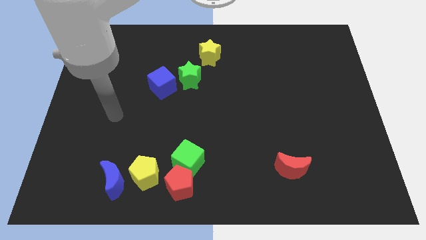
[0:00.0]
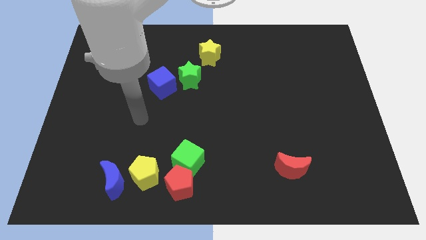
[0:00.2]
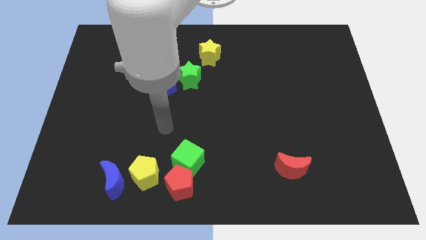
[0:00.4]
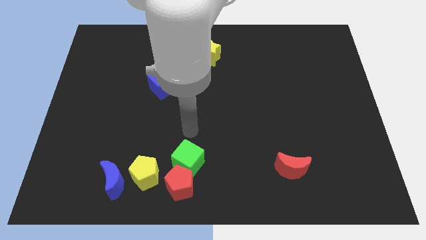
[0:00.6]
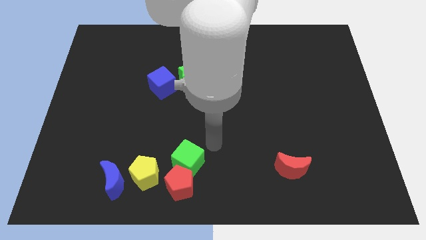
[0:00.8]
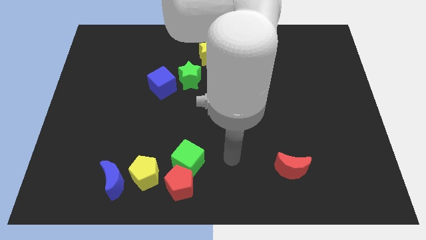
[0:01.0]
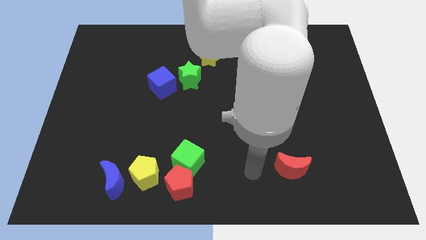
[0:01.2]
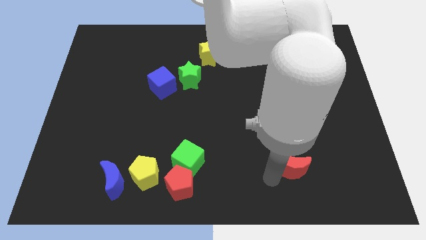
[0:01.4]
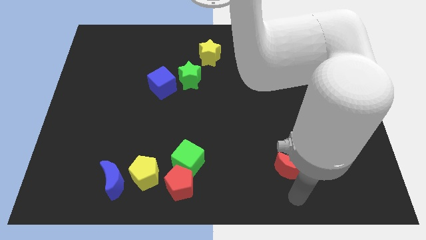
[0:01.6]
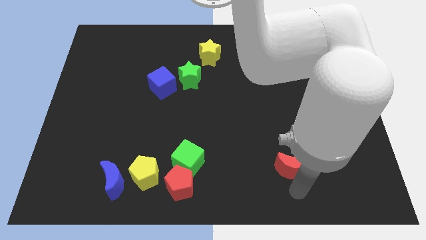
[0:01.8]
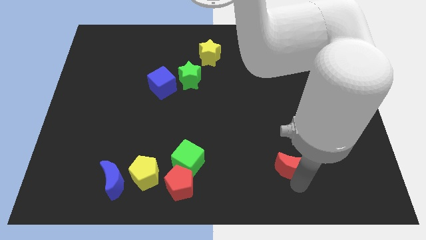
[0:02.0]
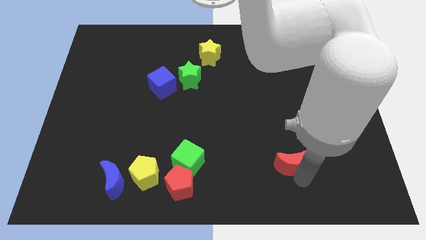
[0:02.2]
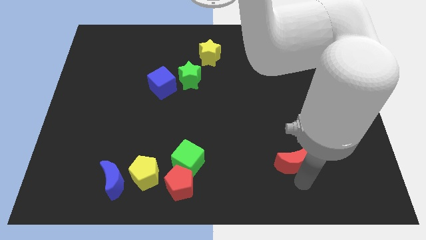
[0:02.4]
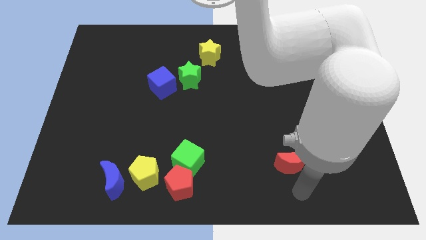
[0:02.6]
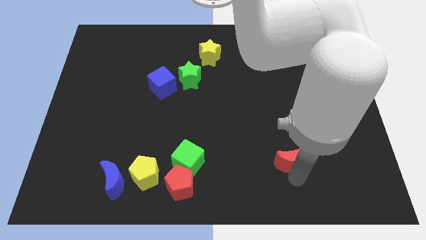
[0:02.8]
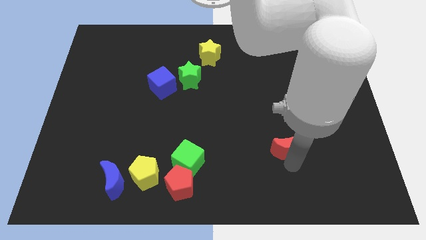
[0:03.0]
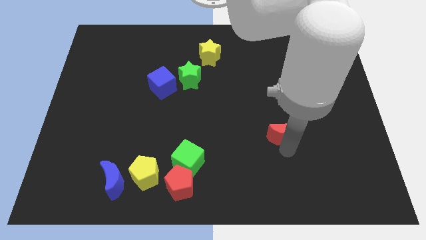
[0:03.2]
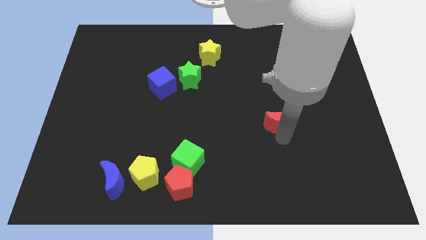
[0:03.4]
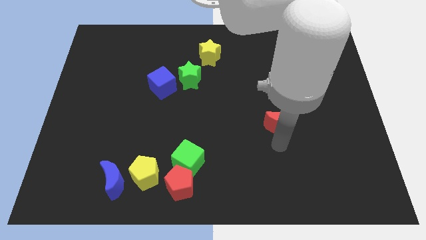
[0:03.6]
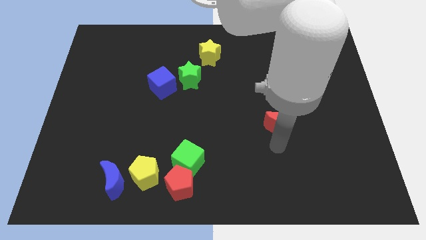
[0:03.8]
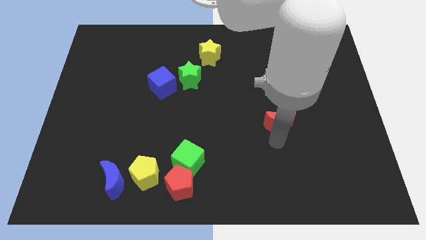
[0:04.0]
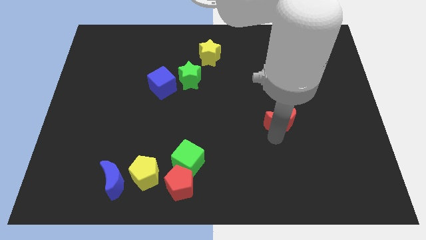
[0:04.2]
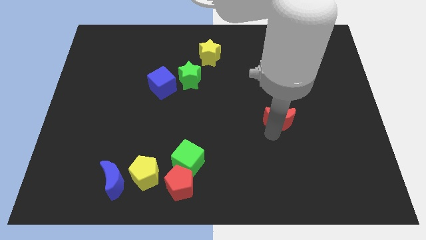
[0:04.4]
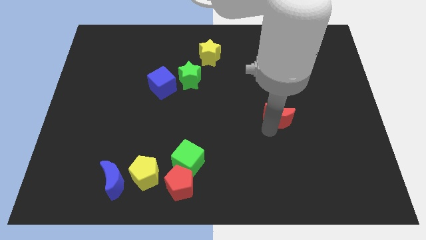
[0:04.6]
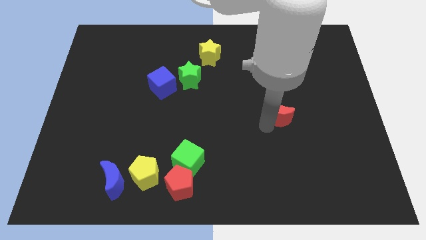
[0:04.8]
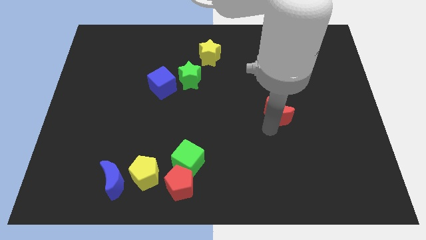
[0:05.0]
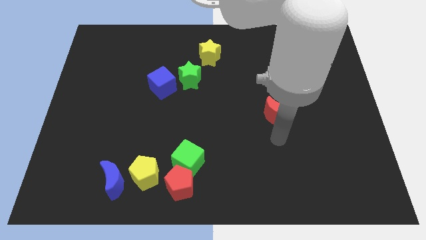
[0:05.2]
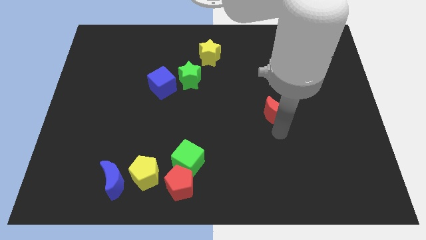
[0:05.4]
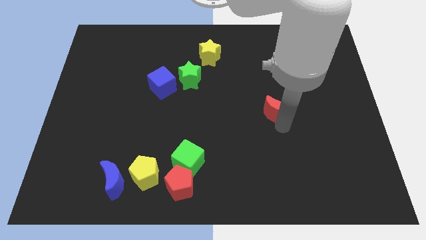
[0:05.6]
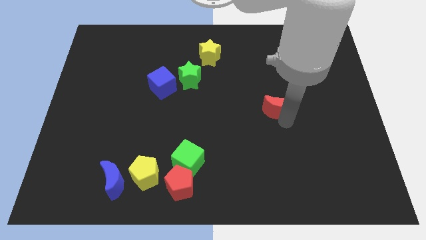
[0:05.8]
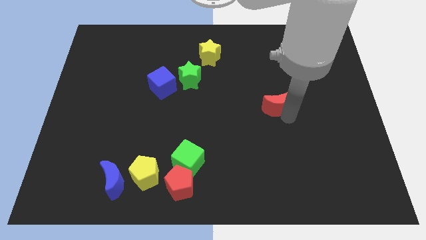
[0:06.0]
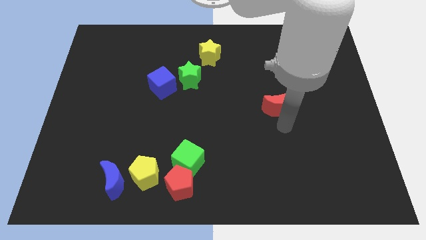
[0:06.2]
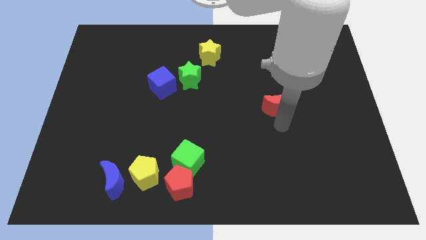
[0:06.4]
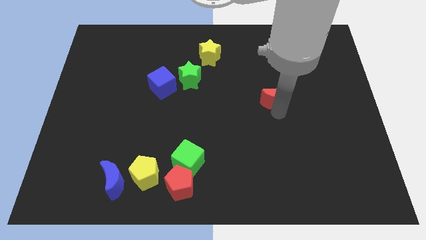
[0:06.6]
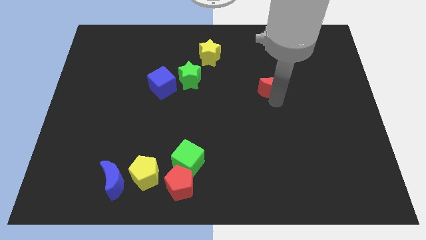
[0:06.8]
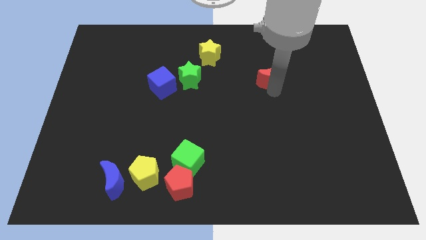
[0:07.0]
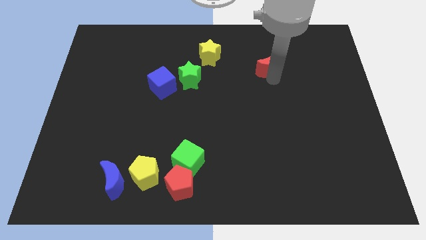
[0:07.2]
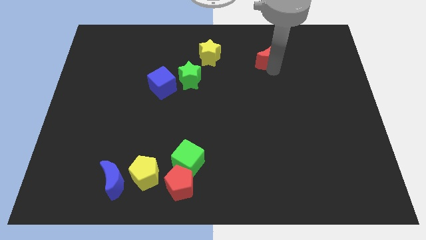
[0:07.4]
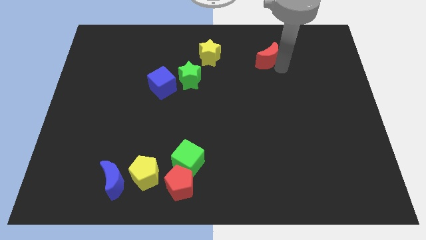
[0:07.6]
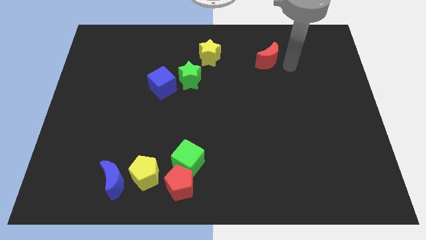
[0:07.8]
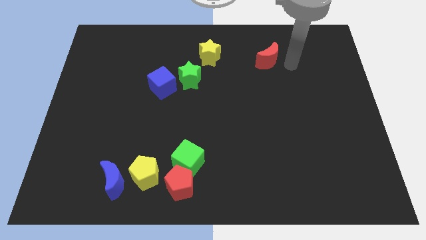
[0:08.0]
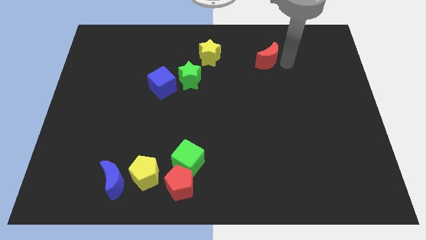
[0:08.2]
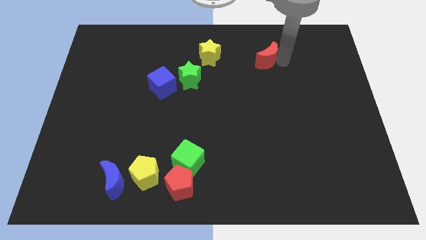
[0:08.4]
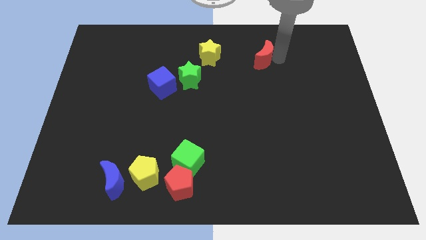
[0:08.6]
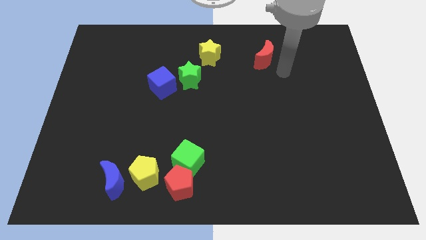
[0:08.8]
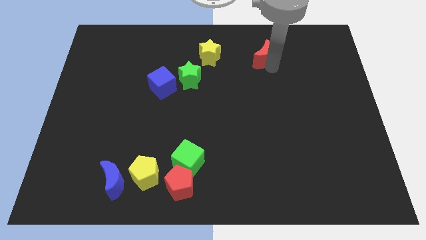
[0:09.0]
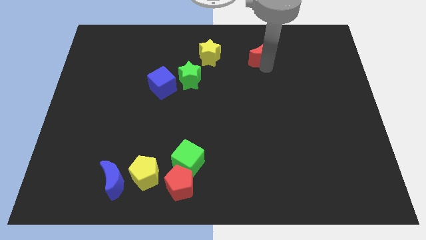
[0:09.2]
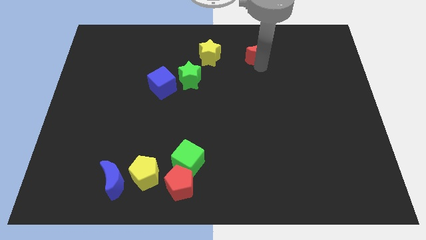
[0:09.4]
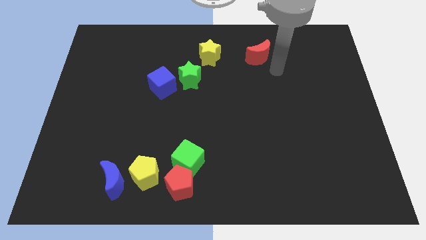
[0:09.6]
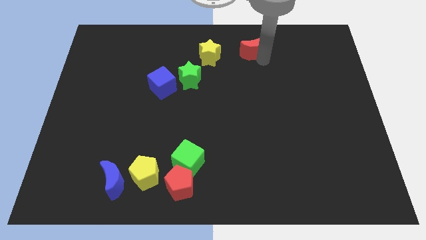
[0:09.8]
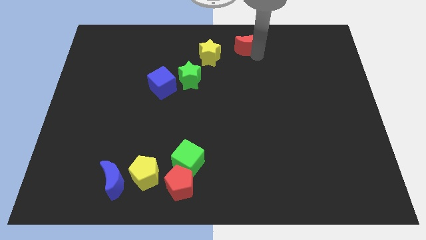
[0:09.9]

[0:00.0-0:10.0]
move the red moon to the towards your base

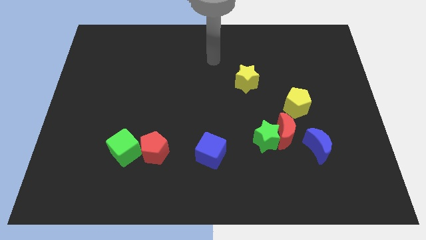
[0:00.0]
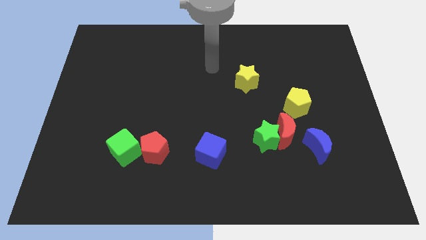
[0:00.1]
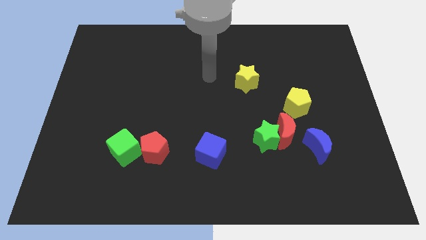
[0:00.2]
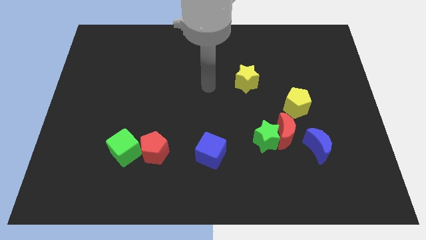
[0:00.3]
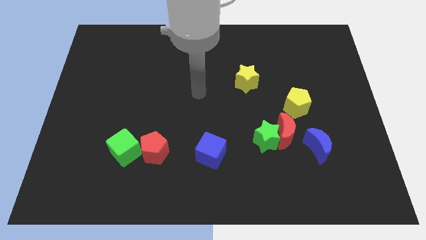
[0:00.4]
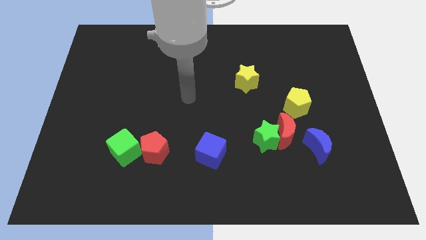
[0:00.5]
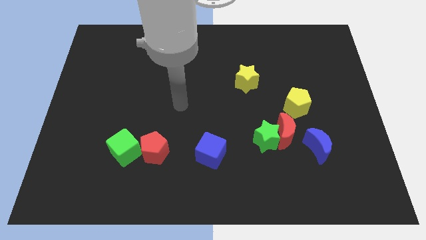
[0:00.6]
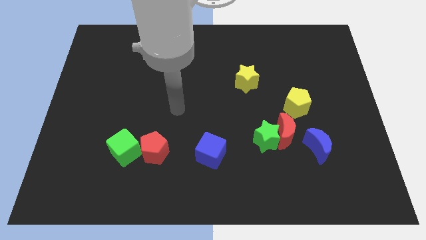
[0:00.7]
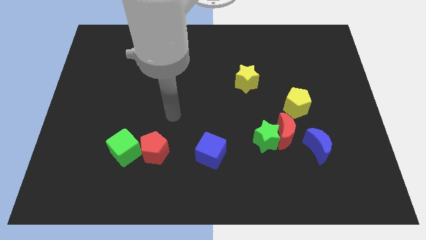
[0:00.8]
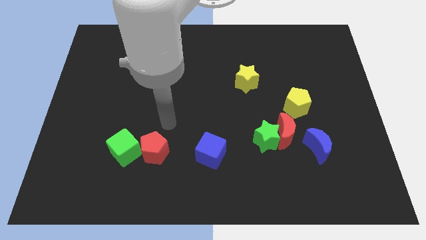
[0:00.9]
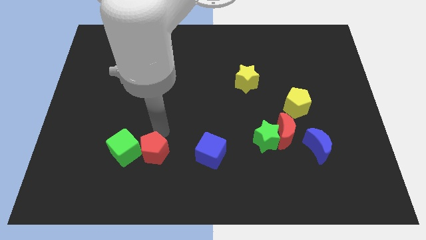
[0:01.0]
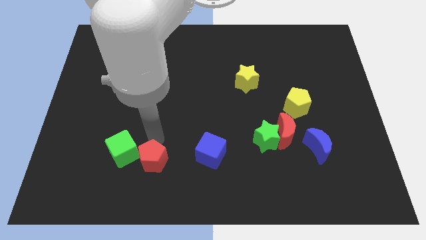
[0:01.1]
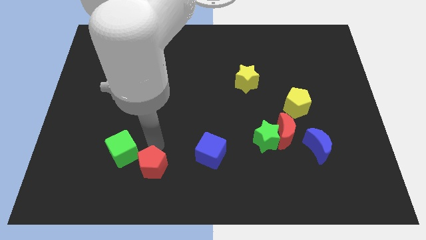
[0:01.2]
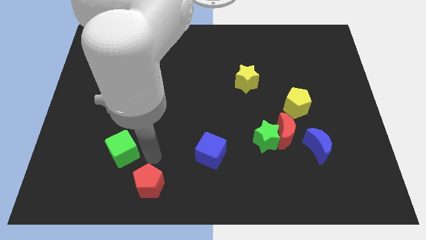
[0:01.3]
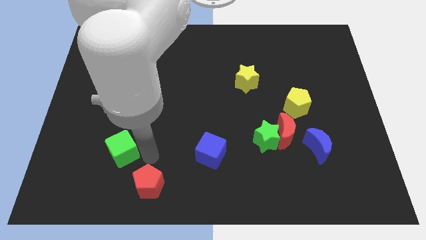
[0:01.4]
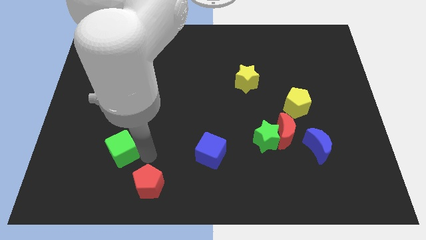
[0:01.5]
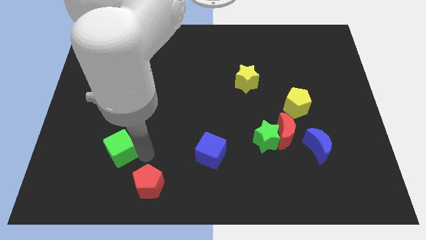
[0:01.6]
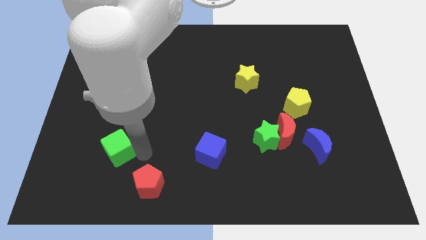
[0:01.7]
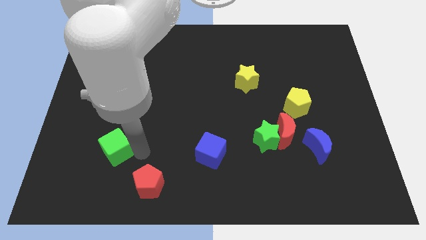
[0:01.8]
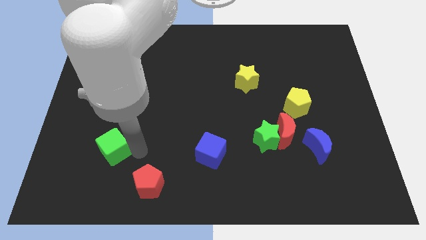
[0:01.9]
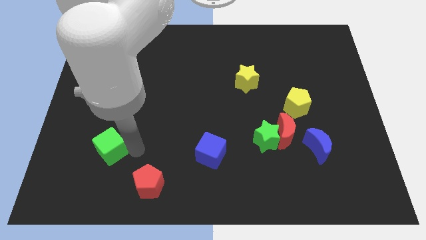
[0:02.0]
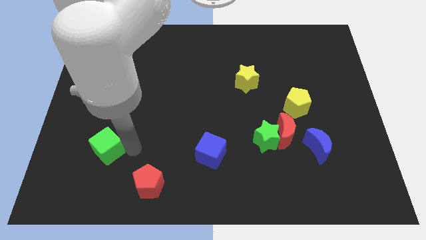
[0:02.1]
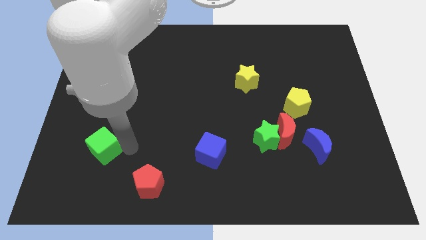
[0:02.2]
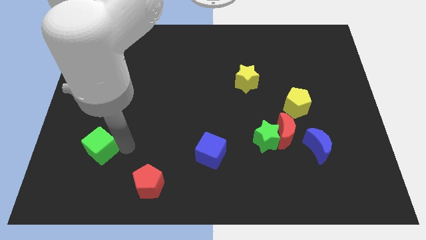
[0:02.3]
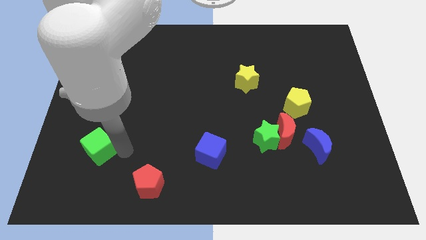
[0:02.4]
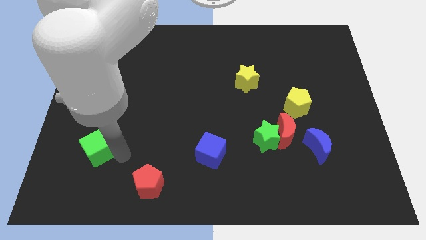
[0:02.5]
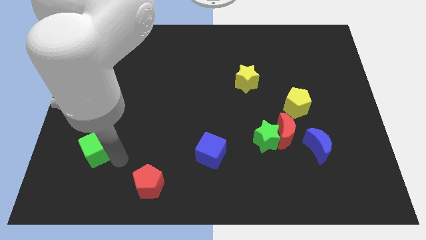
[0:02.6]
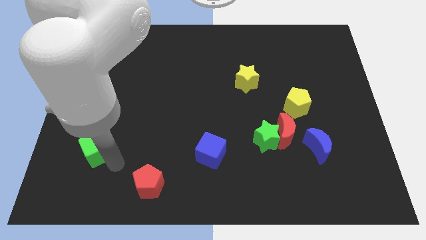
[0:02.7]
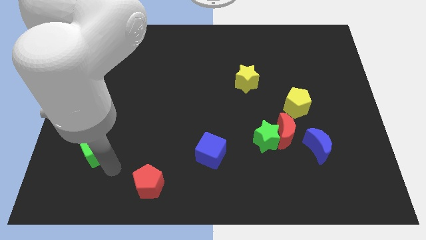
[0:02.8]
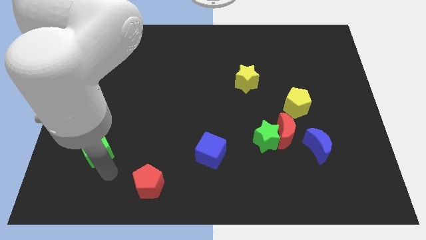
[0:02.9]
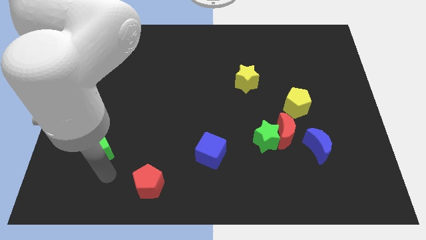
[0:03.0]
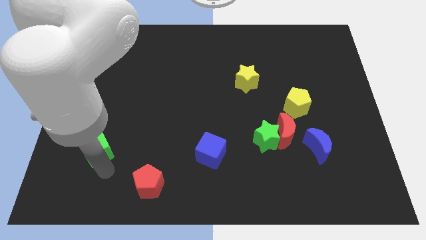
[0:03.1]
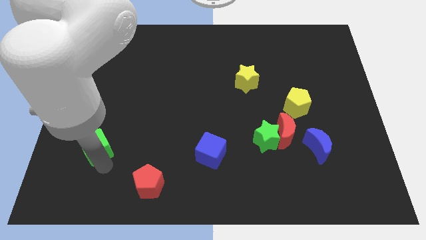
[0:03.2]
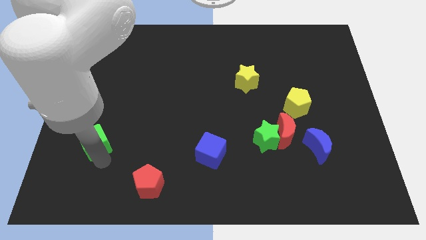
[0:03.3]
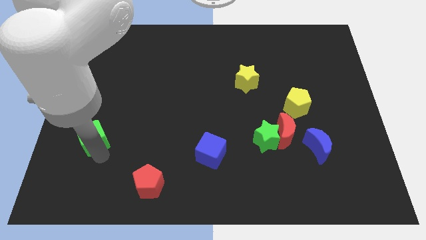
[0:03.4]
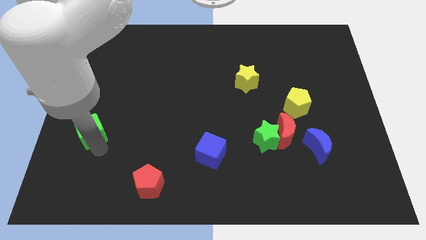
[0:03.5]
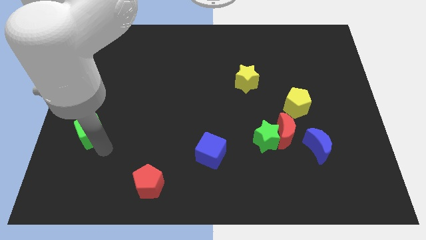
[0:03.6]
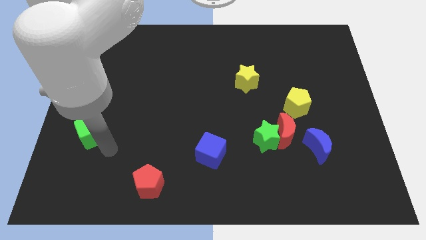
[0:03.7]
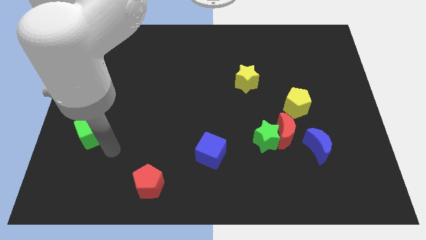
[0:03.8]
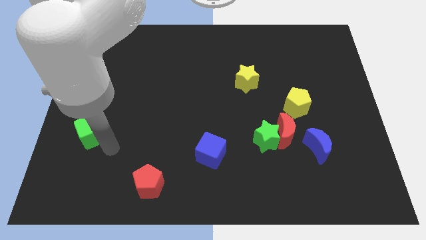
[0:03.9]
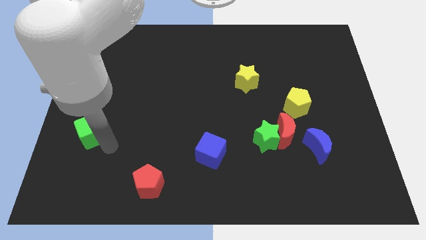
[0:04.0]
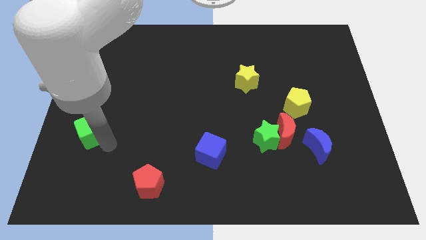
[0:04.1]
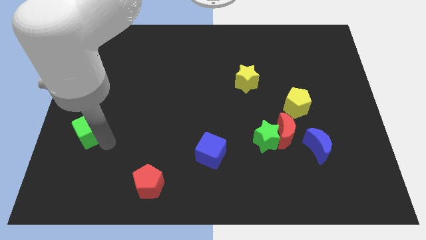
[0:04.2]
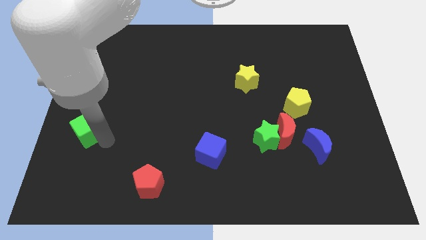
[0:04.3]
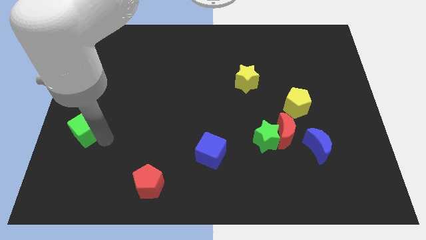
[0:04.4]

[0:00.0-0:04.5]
slide the green cube to the left side of the board
